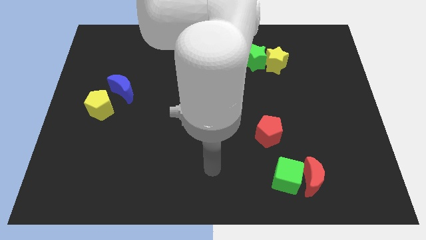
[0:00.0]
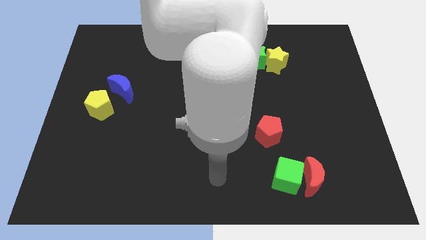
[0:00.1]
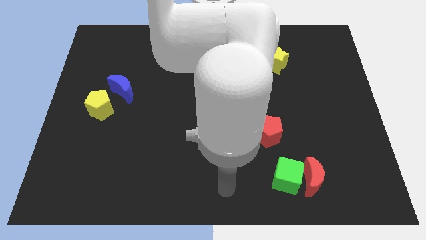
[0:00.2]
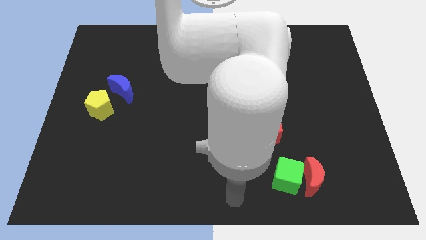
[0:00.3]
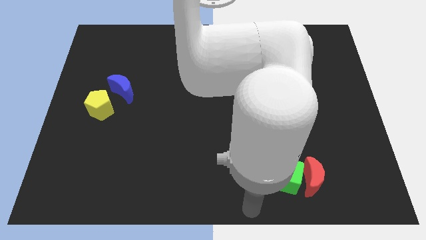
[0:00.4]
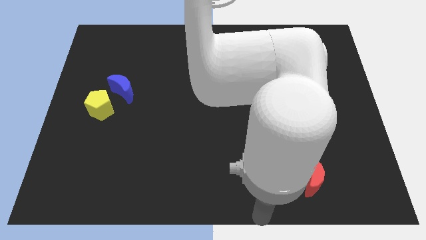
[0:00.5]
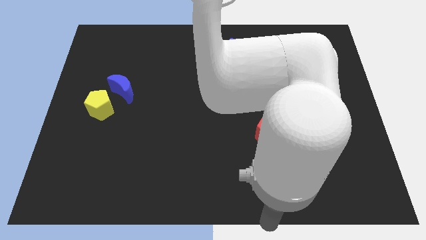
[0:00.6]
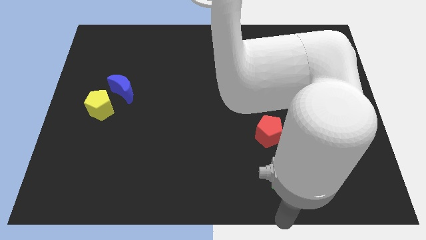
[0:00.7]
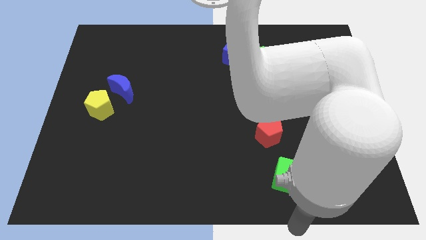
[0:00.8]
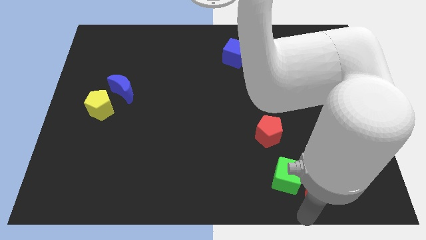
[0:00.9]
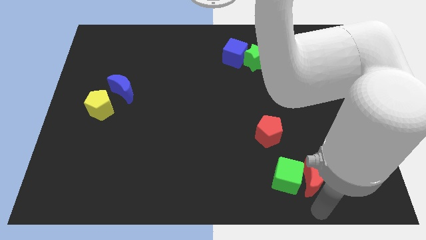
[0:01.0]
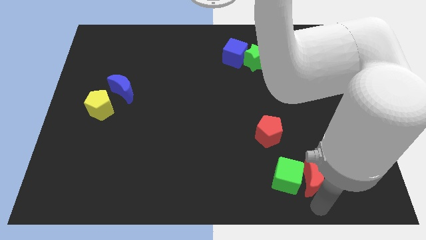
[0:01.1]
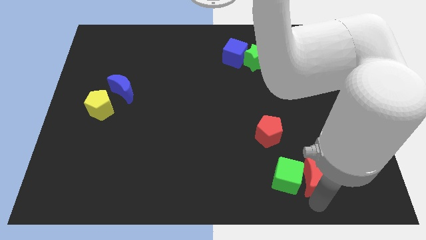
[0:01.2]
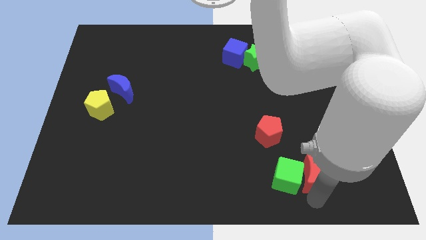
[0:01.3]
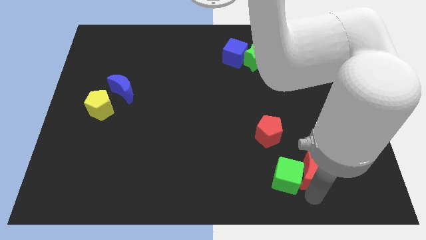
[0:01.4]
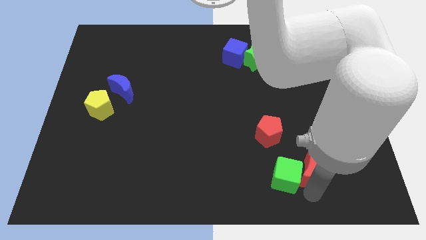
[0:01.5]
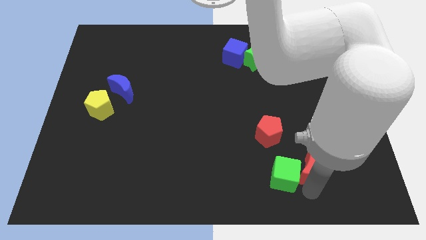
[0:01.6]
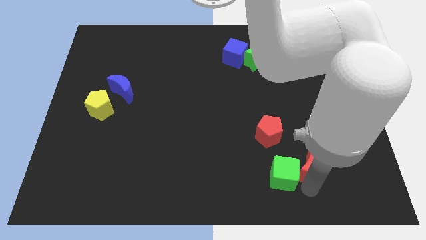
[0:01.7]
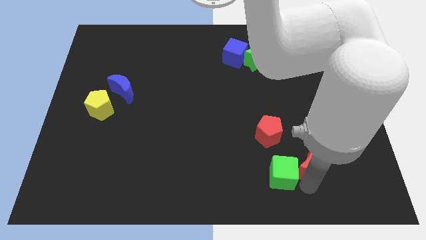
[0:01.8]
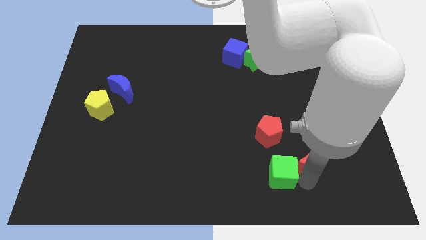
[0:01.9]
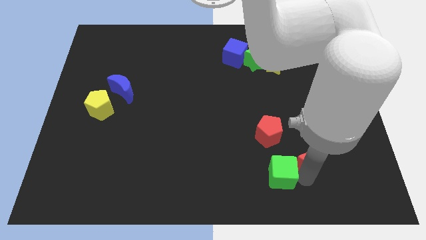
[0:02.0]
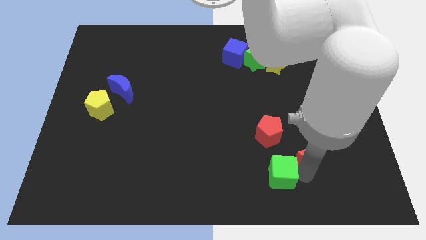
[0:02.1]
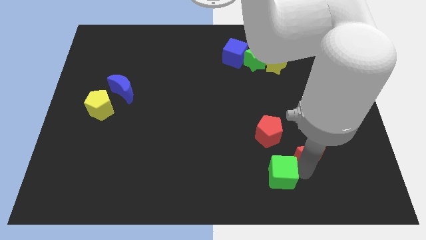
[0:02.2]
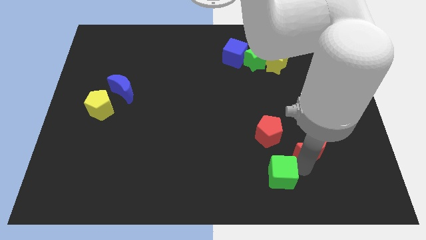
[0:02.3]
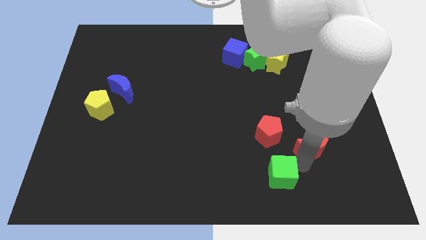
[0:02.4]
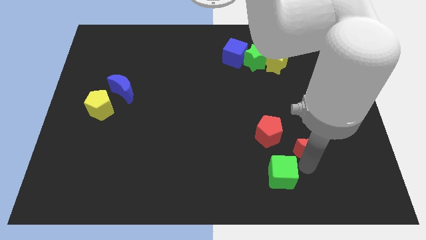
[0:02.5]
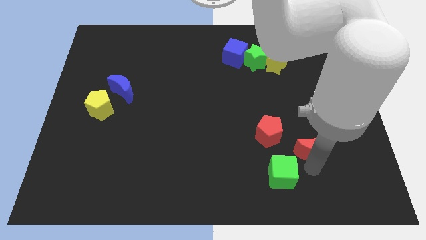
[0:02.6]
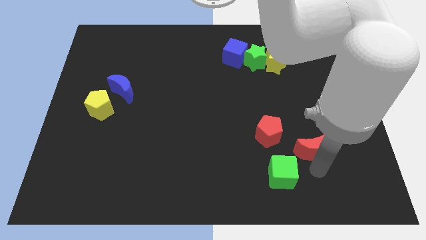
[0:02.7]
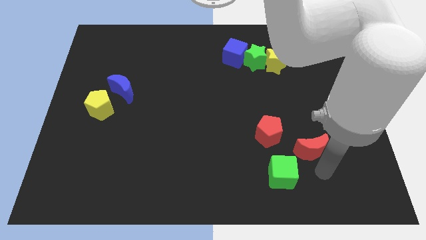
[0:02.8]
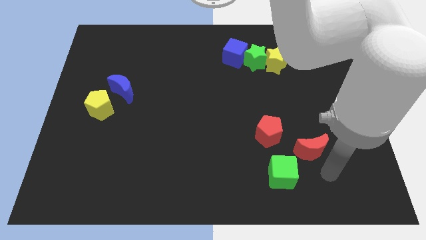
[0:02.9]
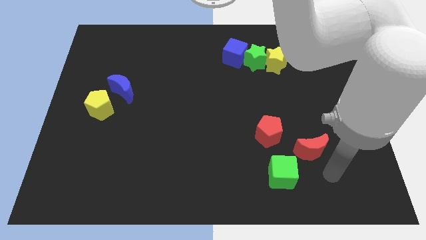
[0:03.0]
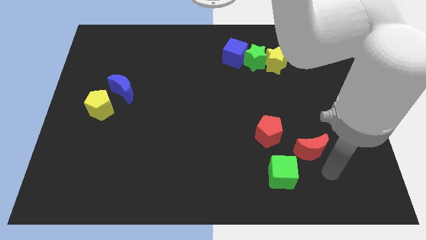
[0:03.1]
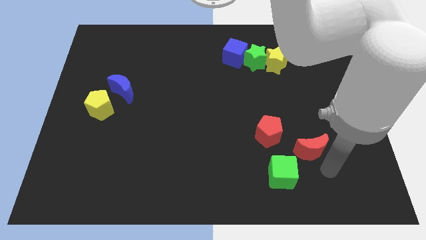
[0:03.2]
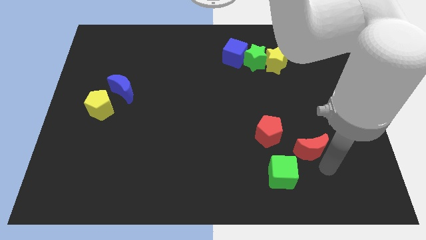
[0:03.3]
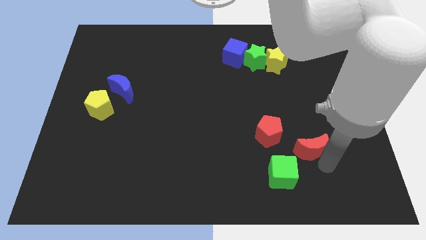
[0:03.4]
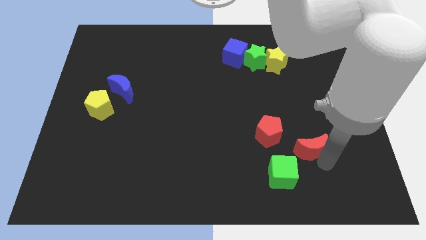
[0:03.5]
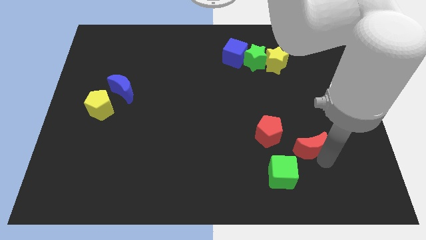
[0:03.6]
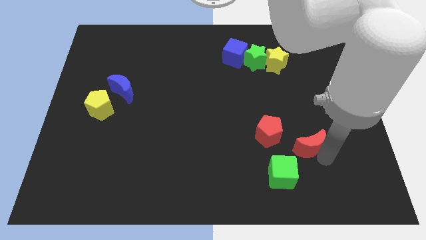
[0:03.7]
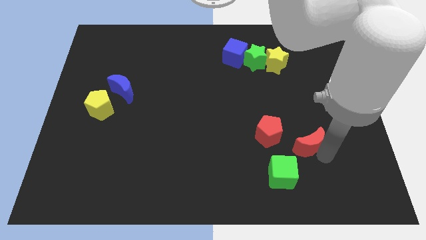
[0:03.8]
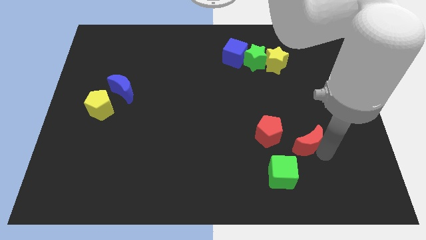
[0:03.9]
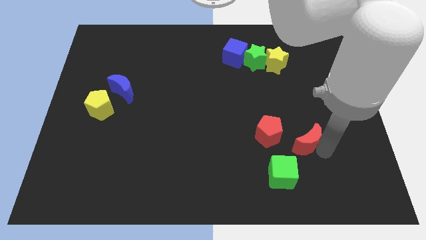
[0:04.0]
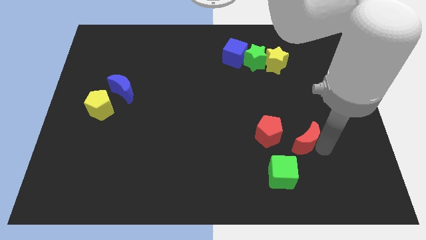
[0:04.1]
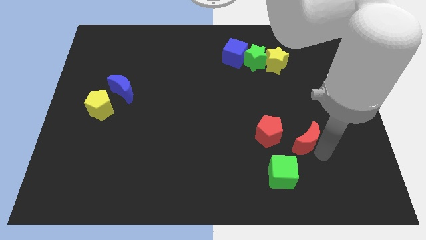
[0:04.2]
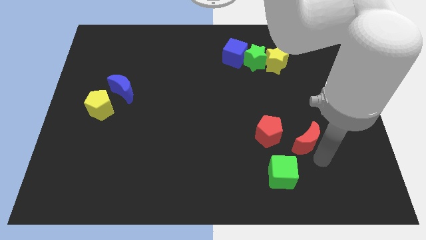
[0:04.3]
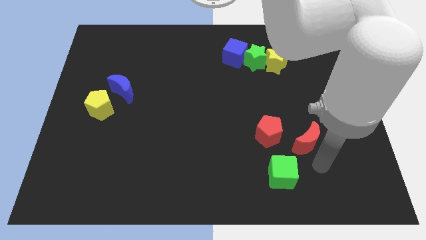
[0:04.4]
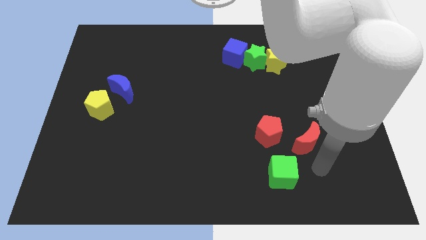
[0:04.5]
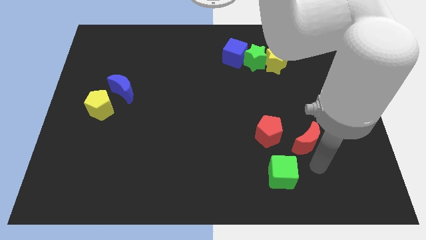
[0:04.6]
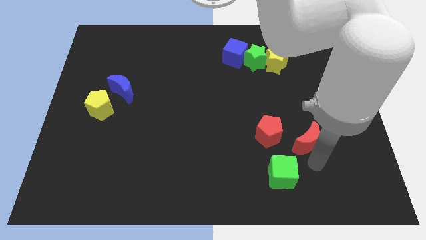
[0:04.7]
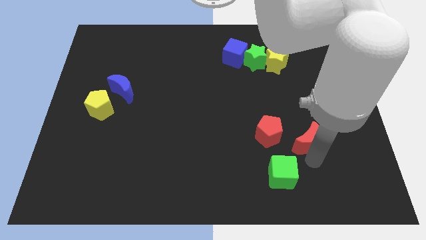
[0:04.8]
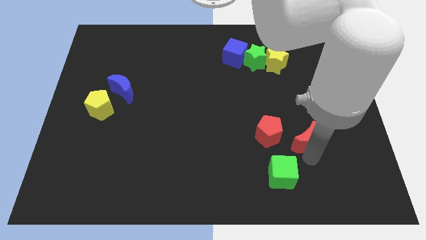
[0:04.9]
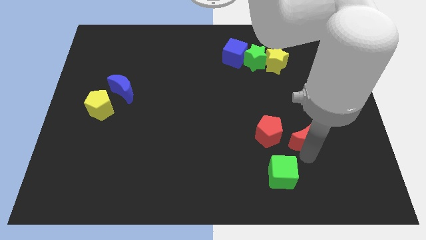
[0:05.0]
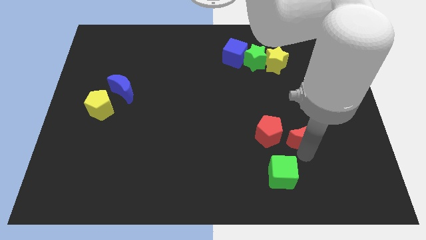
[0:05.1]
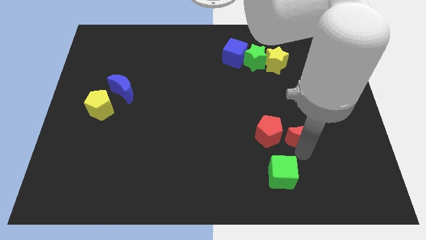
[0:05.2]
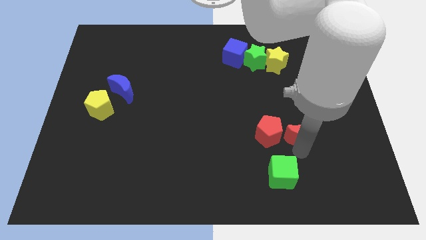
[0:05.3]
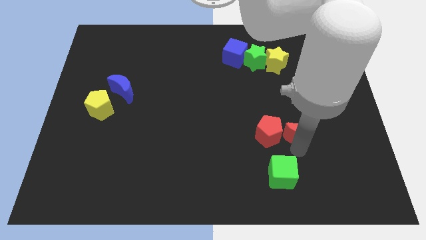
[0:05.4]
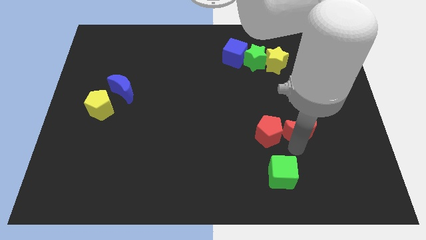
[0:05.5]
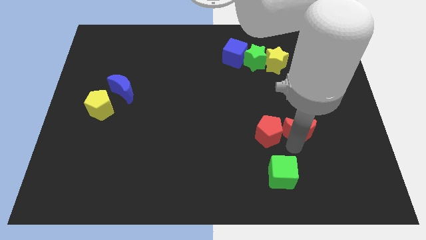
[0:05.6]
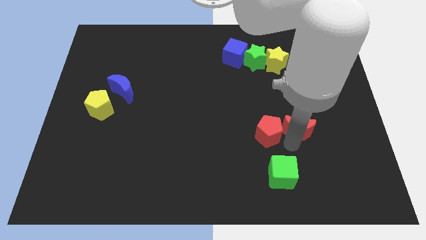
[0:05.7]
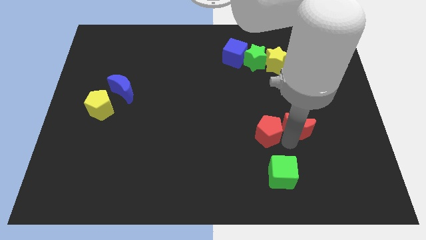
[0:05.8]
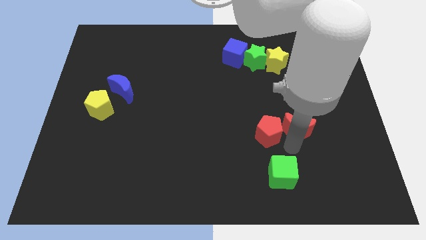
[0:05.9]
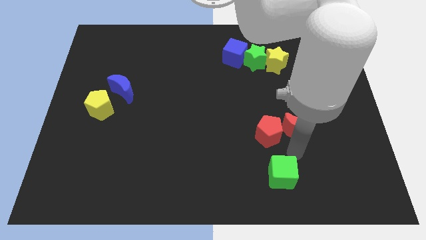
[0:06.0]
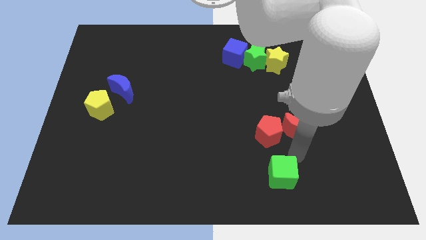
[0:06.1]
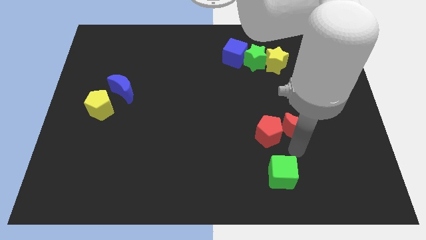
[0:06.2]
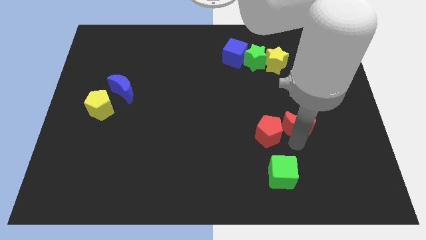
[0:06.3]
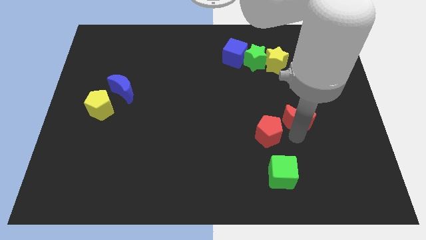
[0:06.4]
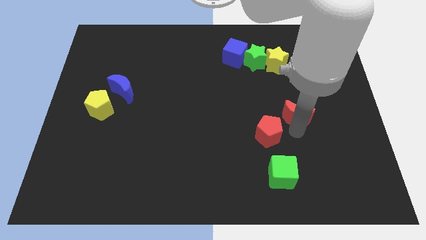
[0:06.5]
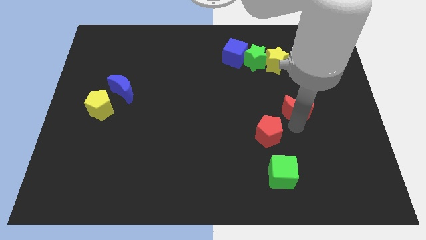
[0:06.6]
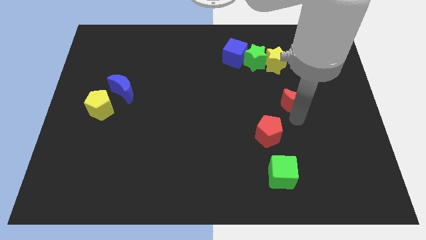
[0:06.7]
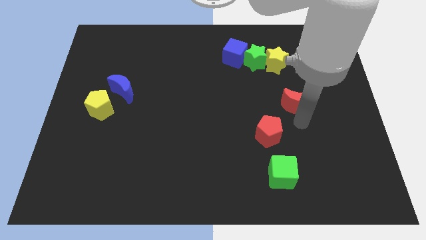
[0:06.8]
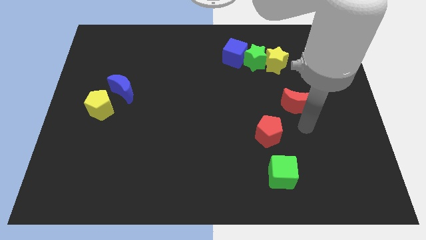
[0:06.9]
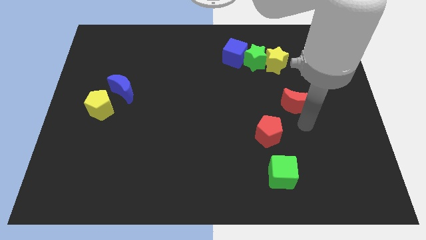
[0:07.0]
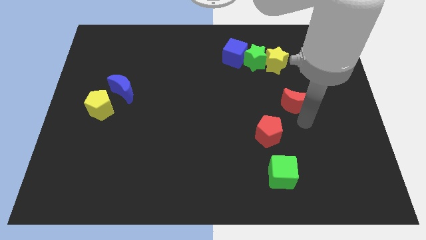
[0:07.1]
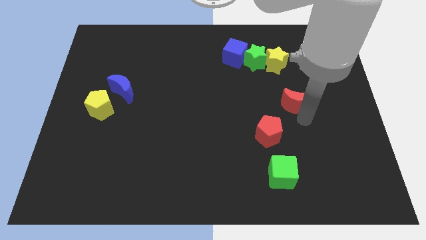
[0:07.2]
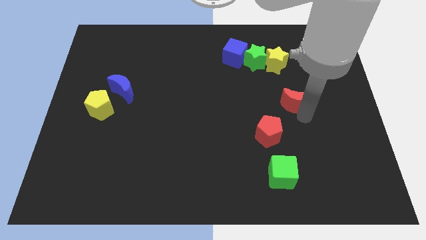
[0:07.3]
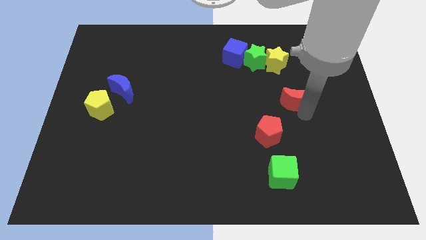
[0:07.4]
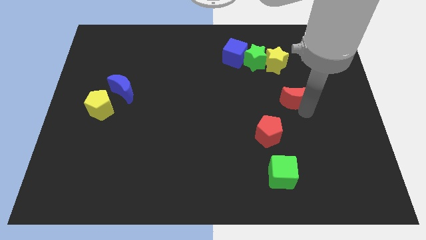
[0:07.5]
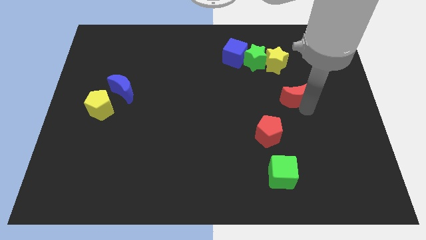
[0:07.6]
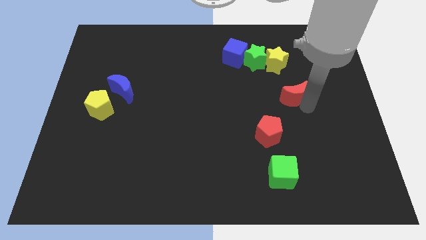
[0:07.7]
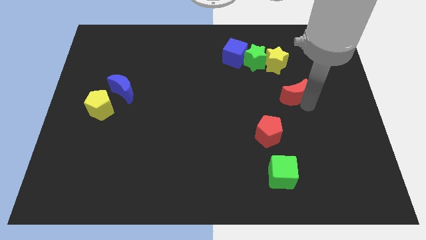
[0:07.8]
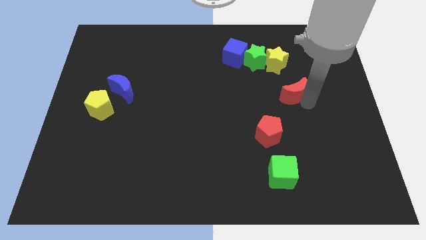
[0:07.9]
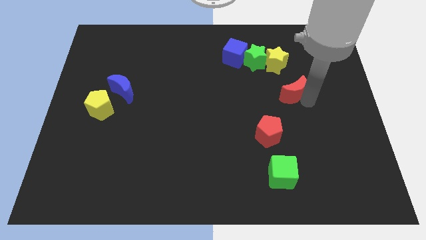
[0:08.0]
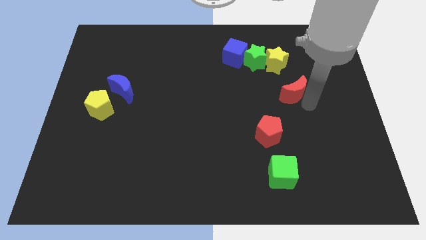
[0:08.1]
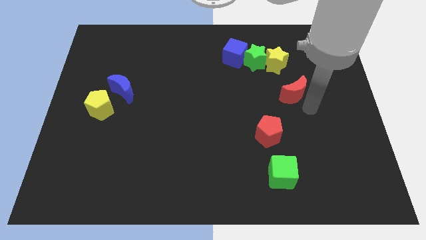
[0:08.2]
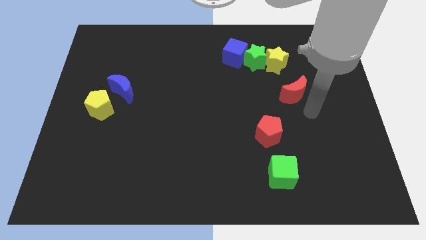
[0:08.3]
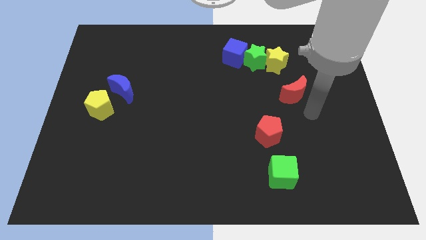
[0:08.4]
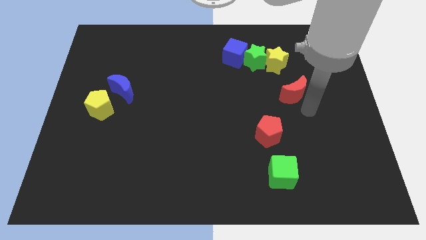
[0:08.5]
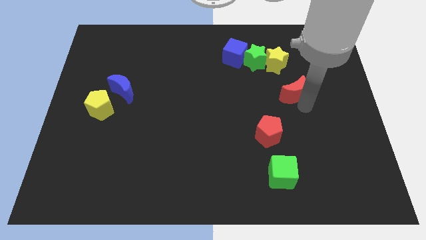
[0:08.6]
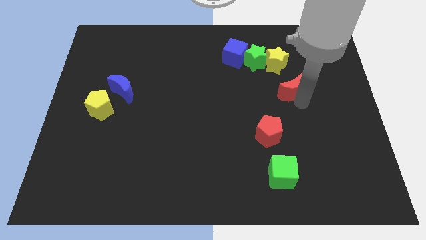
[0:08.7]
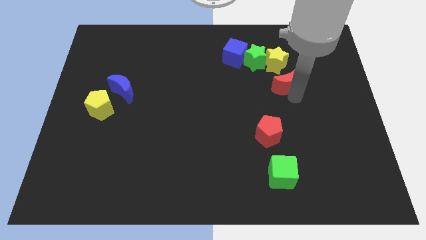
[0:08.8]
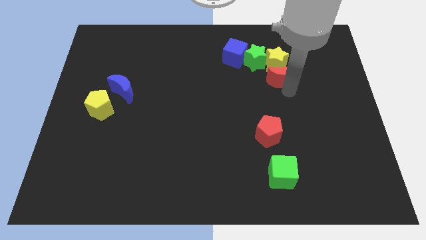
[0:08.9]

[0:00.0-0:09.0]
put the red moon to the yellow star
